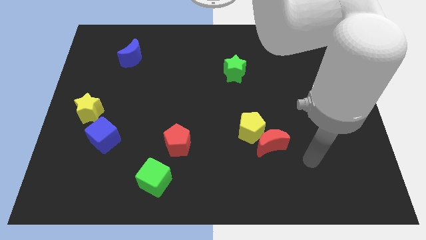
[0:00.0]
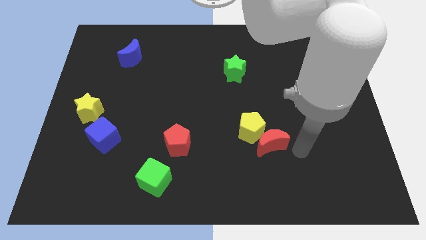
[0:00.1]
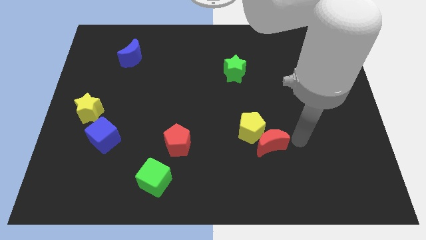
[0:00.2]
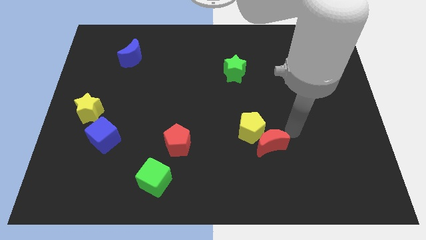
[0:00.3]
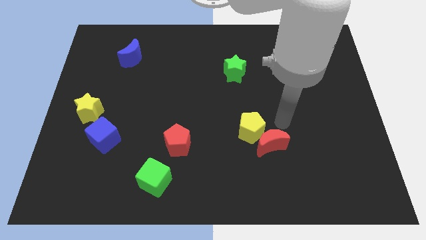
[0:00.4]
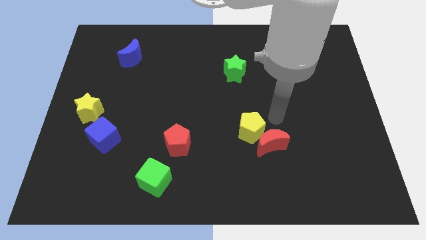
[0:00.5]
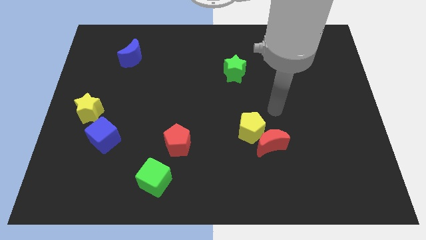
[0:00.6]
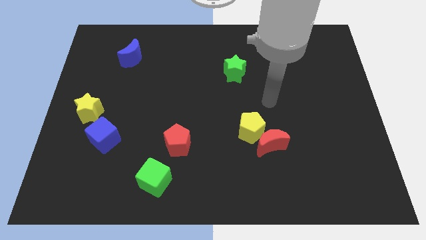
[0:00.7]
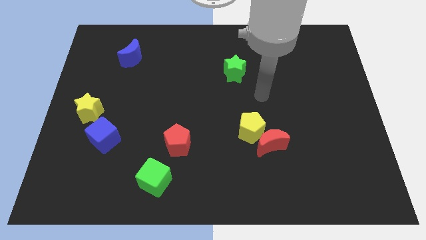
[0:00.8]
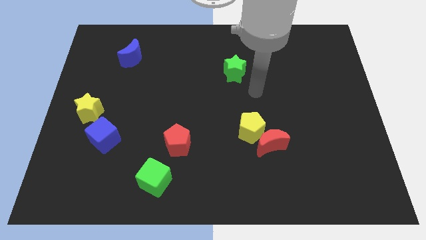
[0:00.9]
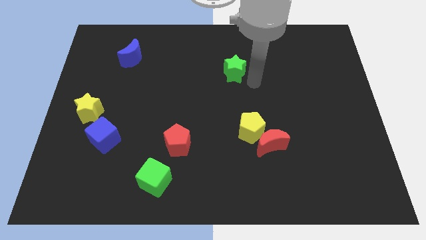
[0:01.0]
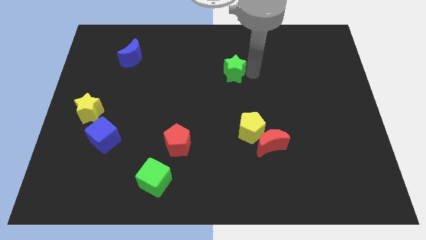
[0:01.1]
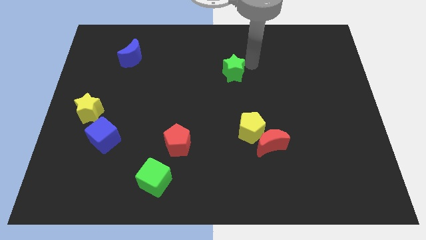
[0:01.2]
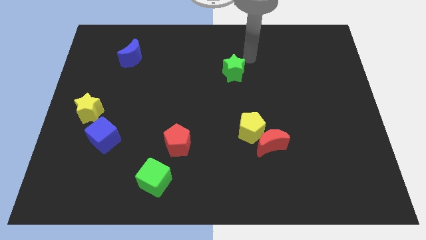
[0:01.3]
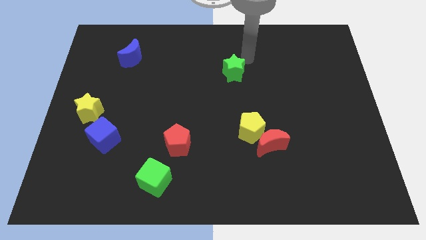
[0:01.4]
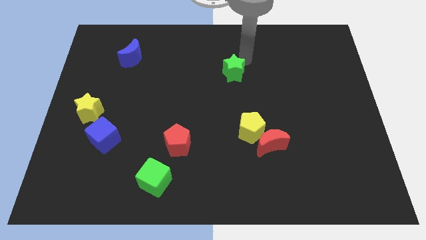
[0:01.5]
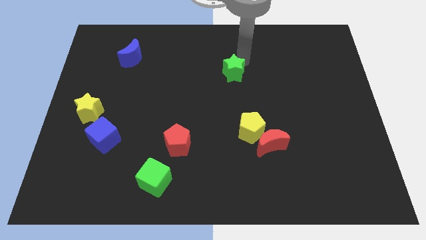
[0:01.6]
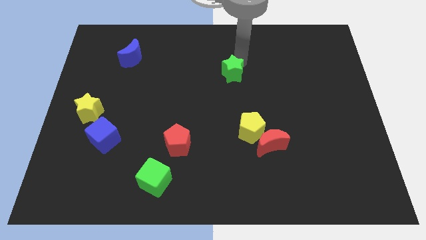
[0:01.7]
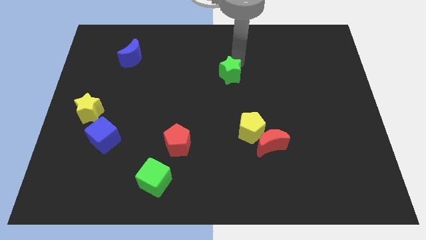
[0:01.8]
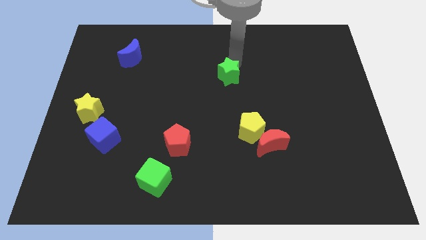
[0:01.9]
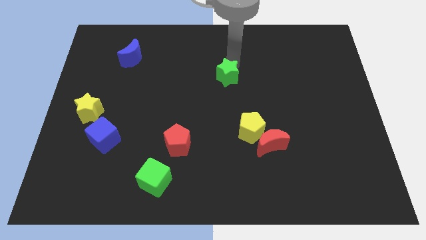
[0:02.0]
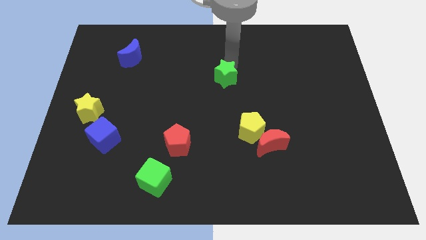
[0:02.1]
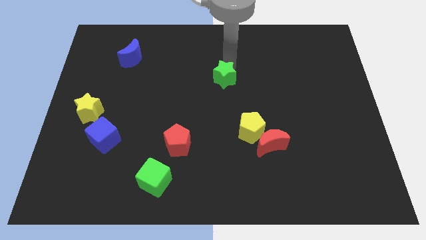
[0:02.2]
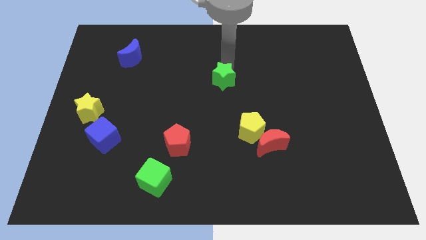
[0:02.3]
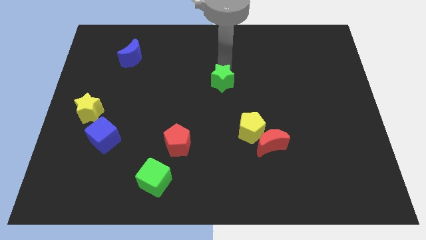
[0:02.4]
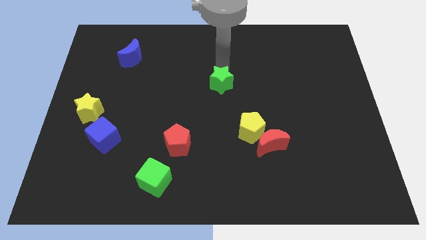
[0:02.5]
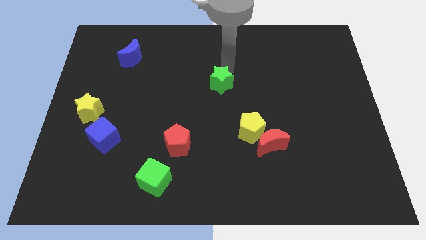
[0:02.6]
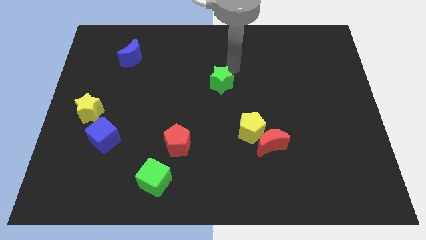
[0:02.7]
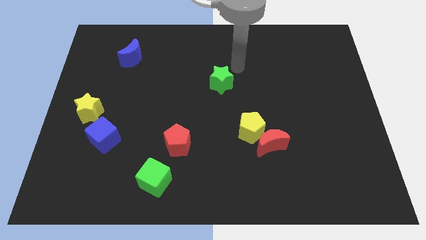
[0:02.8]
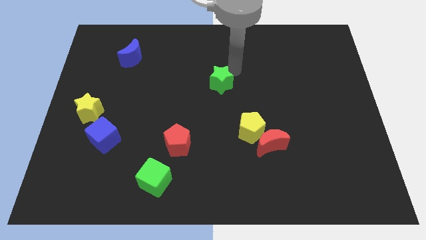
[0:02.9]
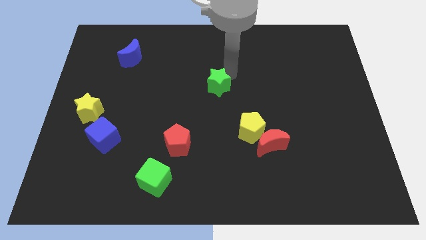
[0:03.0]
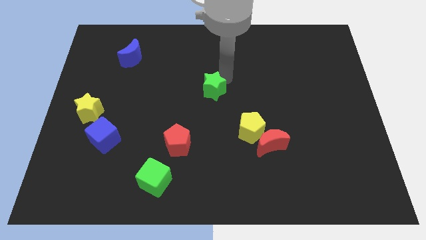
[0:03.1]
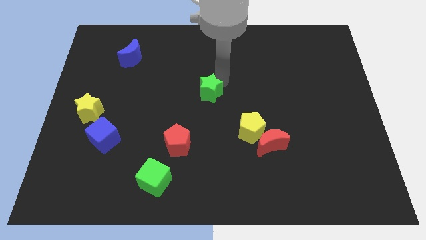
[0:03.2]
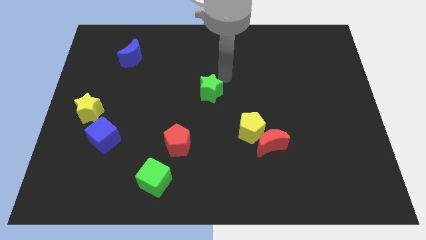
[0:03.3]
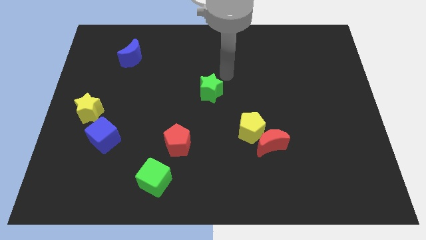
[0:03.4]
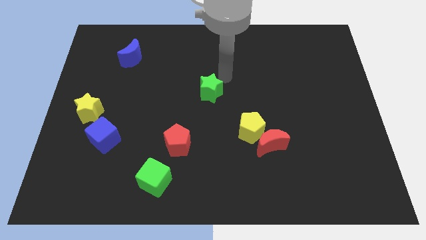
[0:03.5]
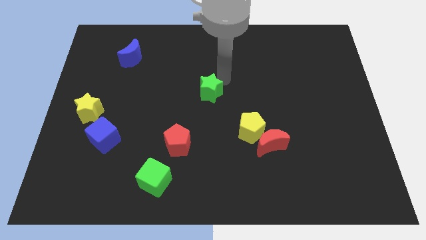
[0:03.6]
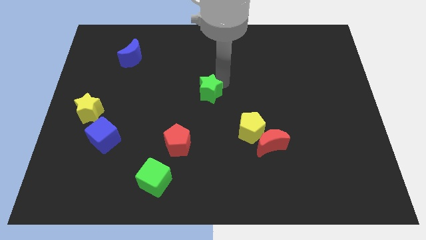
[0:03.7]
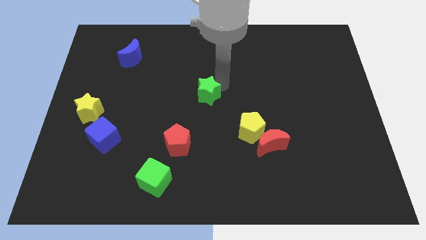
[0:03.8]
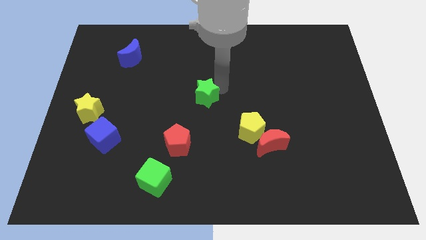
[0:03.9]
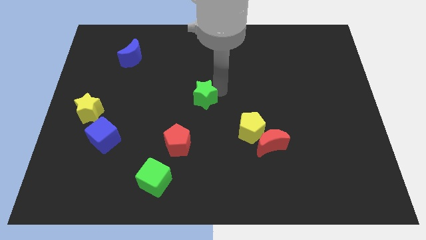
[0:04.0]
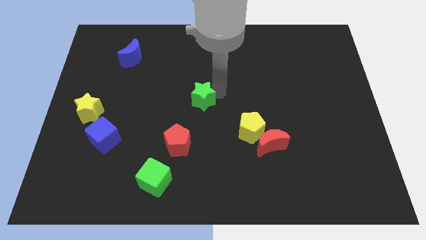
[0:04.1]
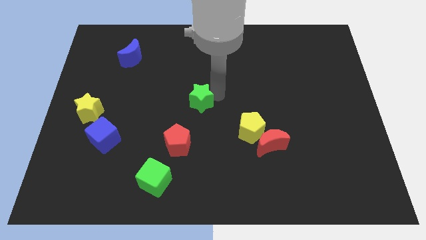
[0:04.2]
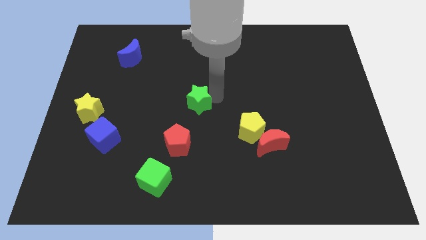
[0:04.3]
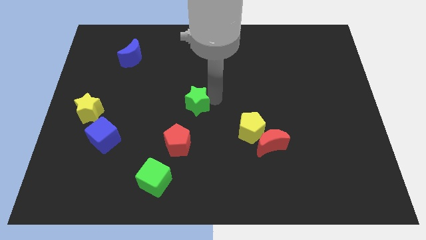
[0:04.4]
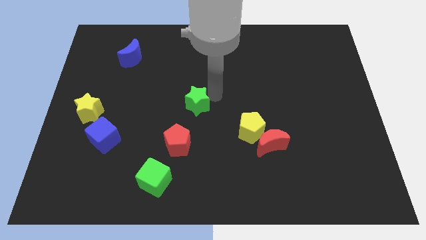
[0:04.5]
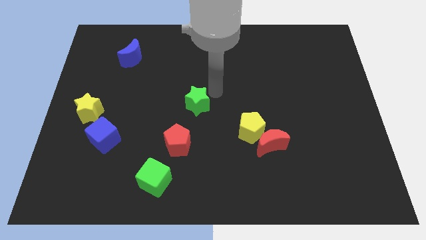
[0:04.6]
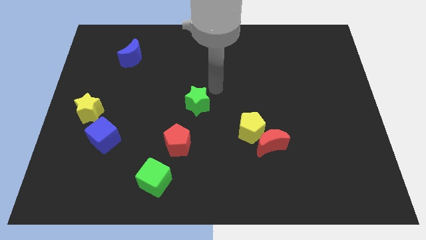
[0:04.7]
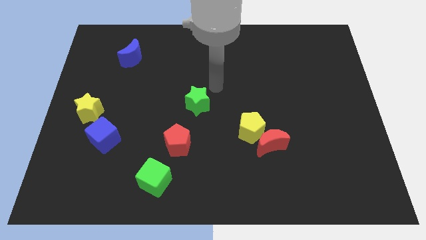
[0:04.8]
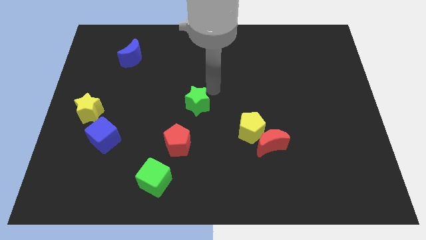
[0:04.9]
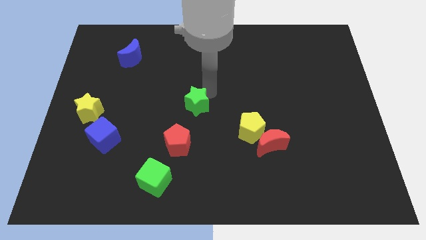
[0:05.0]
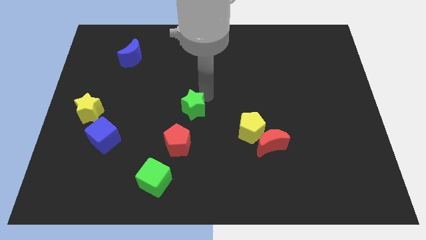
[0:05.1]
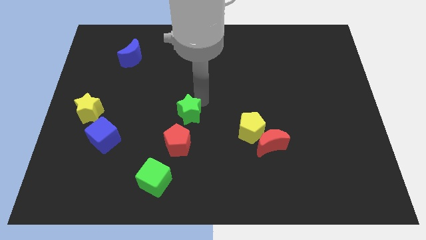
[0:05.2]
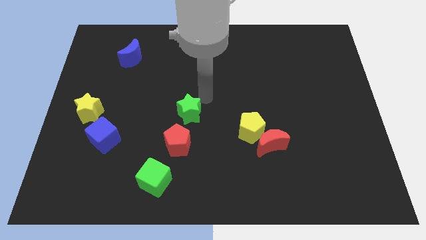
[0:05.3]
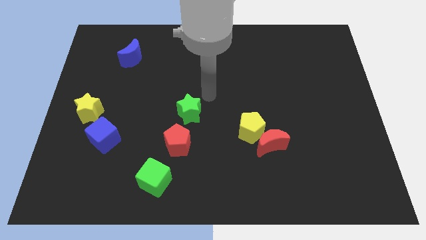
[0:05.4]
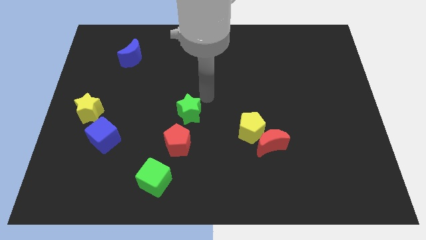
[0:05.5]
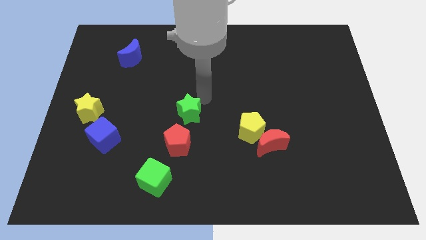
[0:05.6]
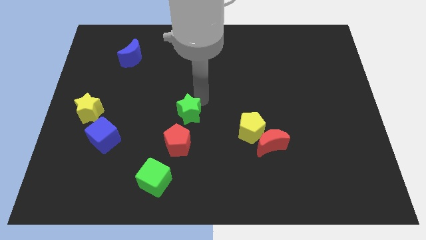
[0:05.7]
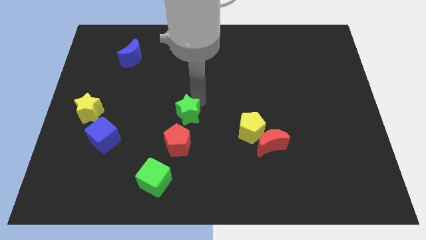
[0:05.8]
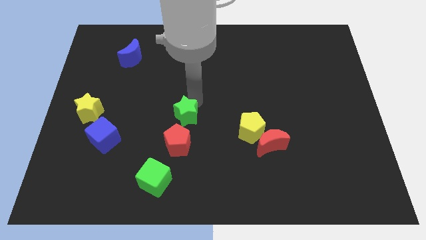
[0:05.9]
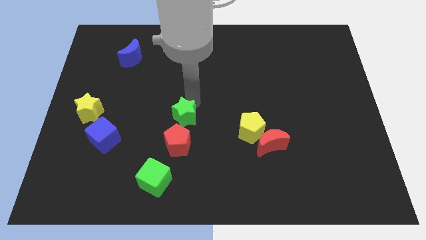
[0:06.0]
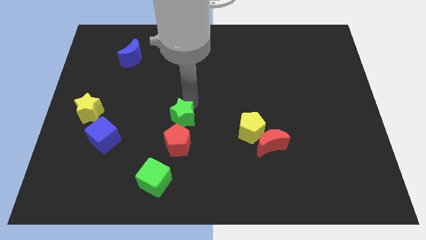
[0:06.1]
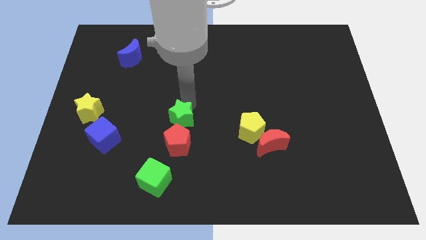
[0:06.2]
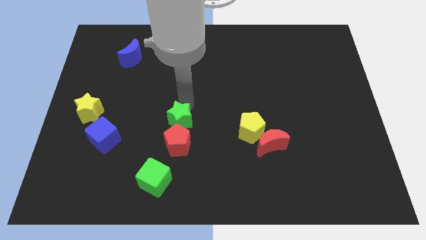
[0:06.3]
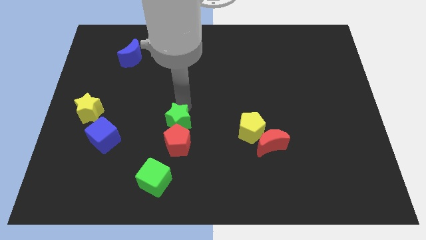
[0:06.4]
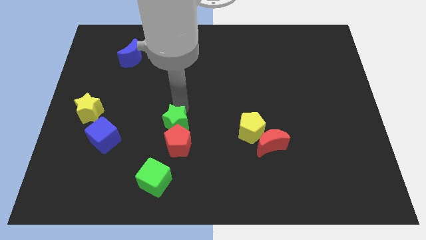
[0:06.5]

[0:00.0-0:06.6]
slide the green star to the top side of the green cube
